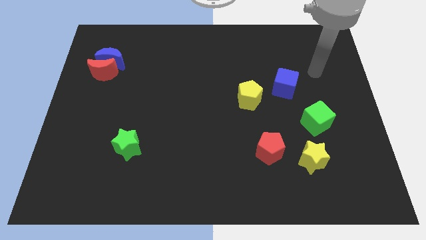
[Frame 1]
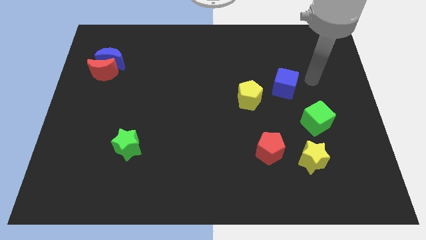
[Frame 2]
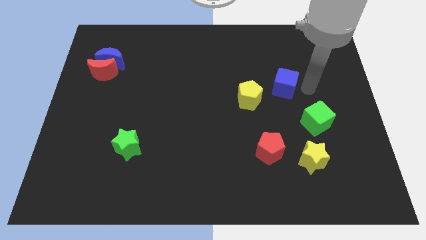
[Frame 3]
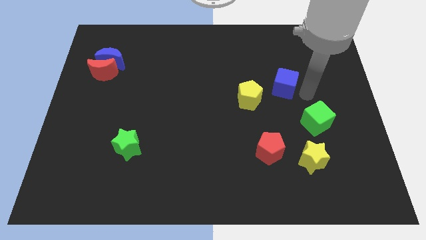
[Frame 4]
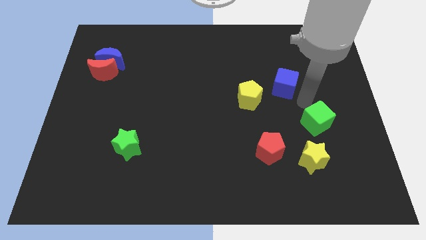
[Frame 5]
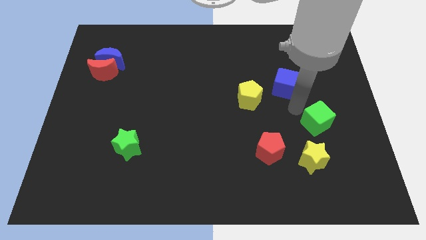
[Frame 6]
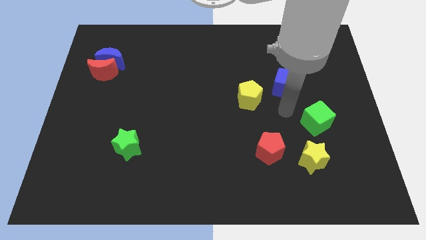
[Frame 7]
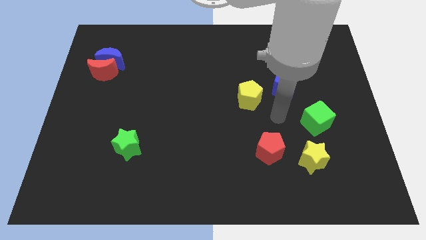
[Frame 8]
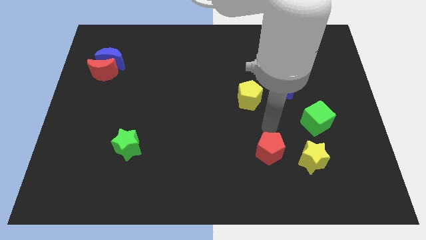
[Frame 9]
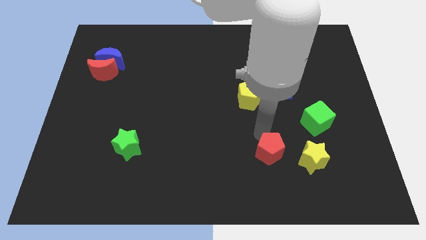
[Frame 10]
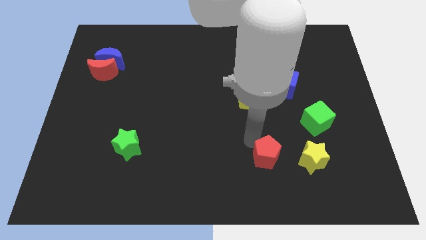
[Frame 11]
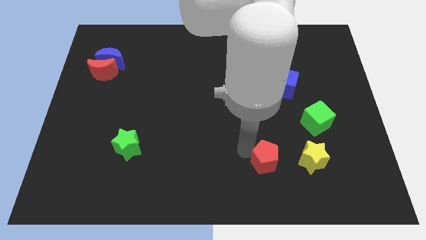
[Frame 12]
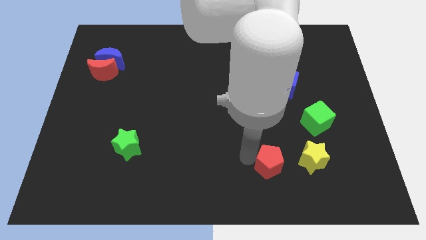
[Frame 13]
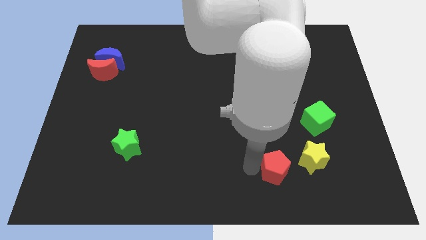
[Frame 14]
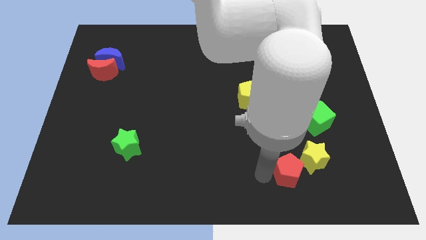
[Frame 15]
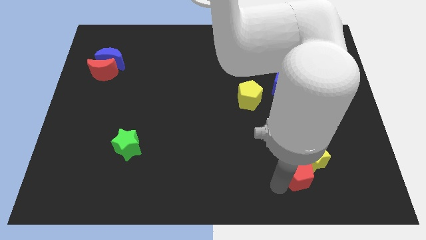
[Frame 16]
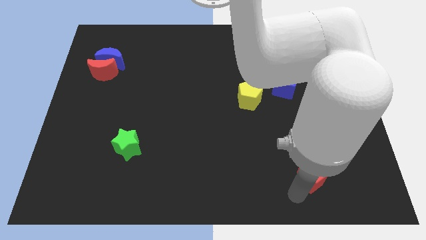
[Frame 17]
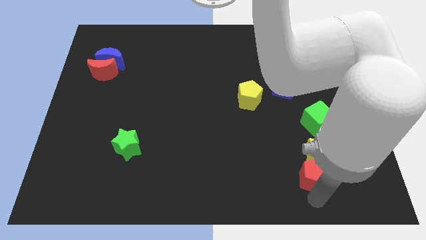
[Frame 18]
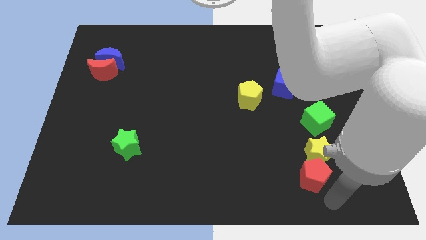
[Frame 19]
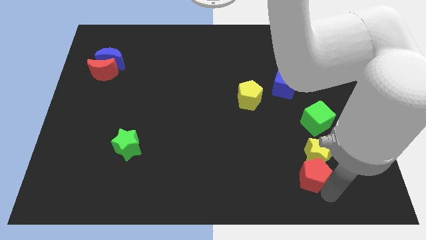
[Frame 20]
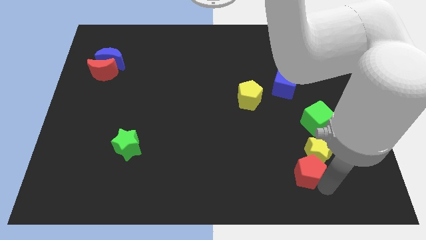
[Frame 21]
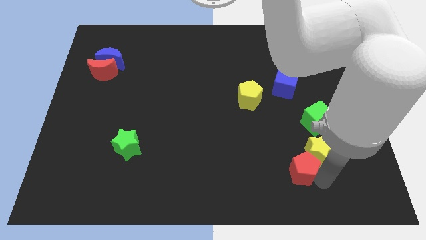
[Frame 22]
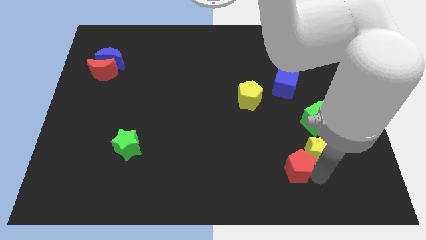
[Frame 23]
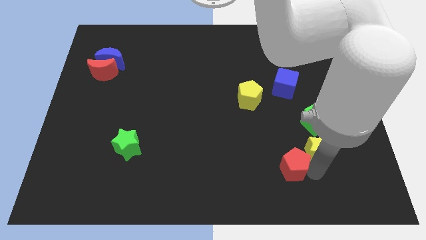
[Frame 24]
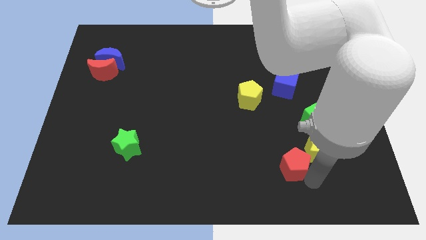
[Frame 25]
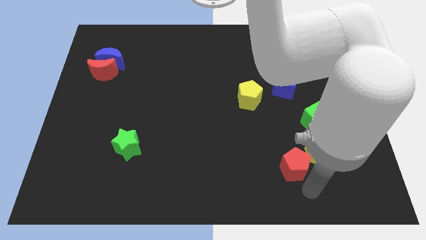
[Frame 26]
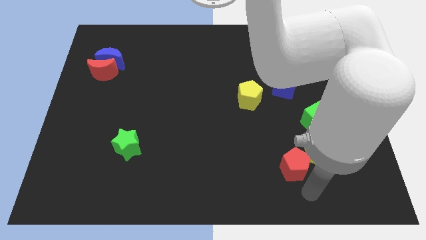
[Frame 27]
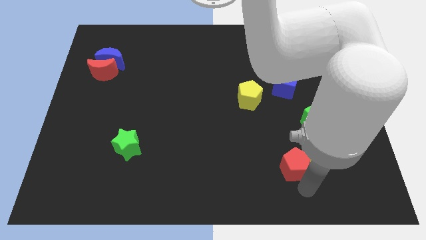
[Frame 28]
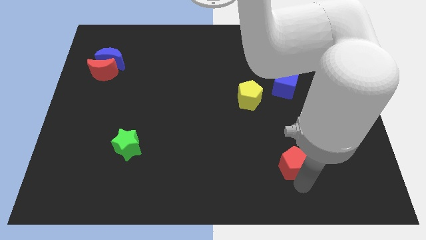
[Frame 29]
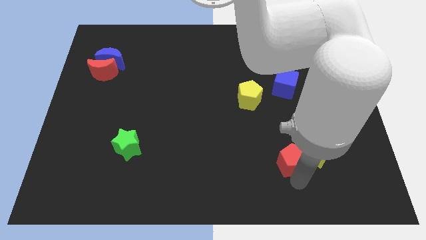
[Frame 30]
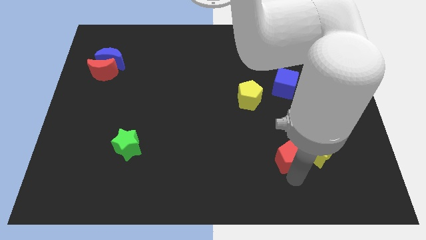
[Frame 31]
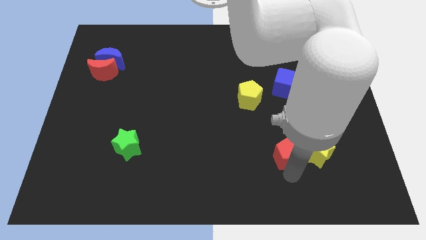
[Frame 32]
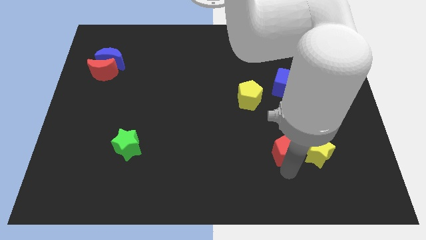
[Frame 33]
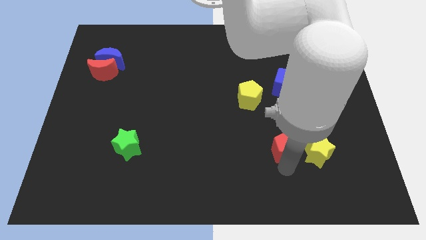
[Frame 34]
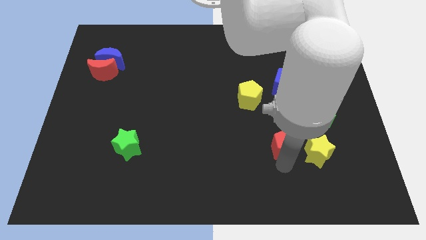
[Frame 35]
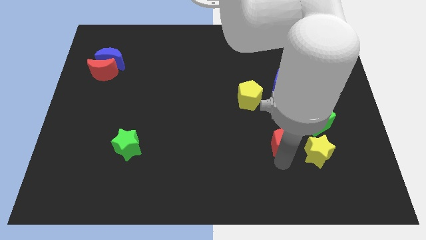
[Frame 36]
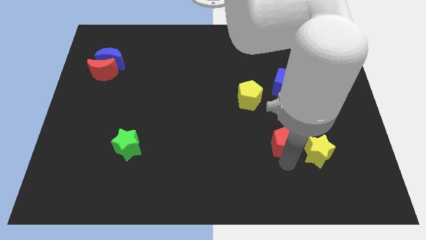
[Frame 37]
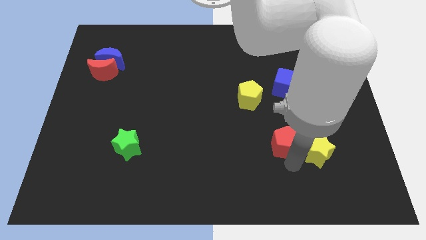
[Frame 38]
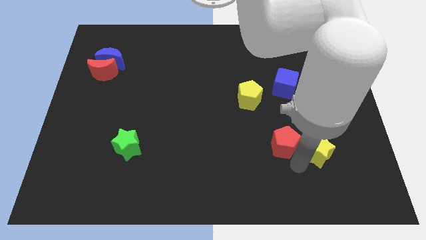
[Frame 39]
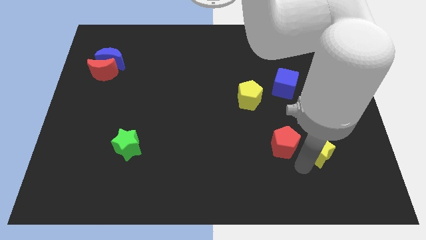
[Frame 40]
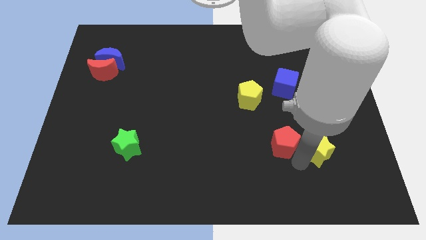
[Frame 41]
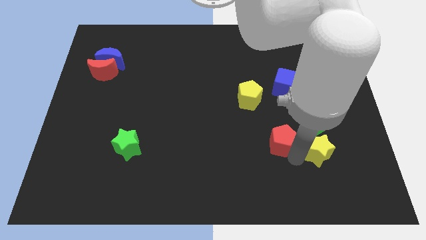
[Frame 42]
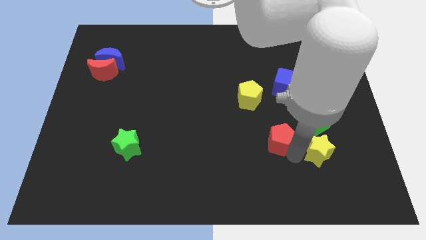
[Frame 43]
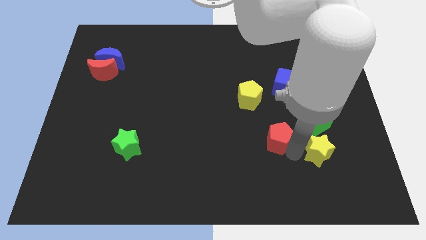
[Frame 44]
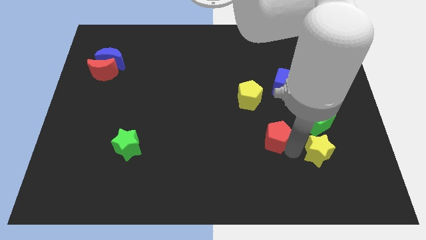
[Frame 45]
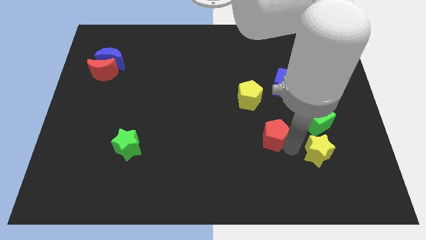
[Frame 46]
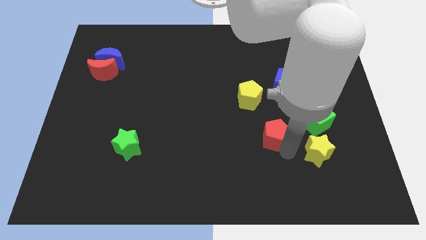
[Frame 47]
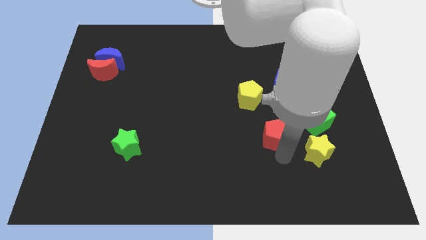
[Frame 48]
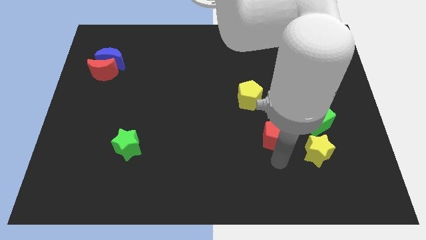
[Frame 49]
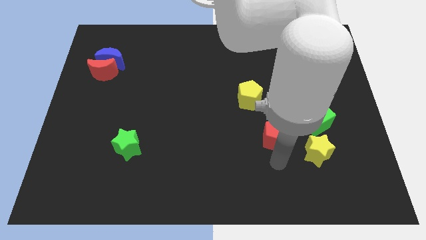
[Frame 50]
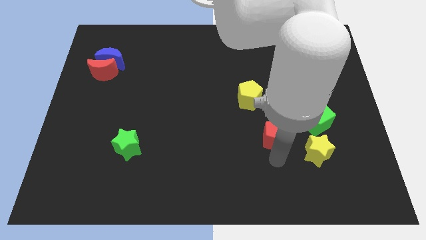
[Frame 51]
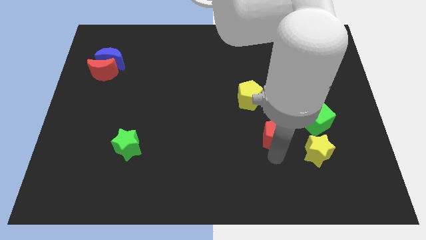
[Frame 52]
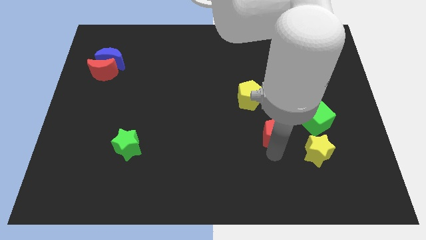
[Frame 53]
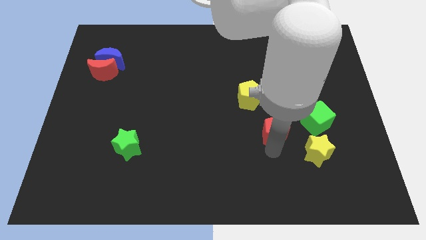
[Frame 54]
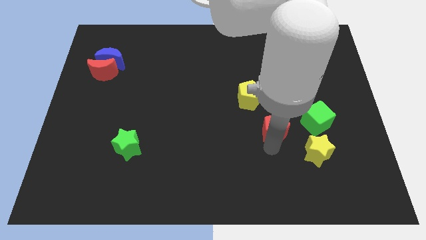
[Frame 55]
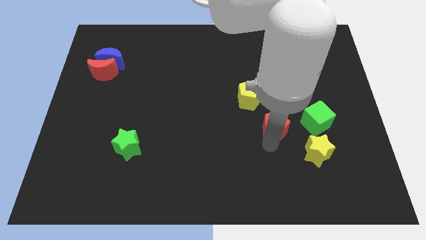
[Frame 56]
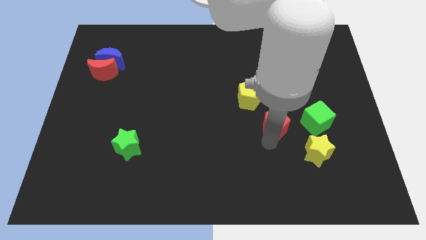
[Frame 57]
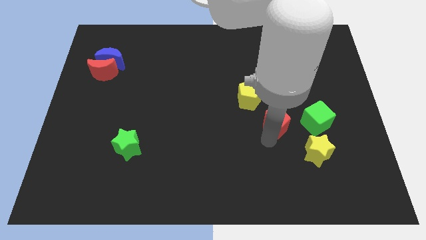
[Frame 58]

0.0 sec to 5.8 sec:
slightly move the red pentagon up

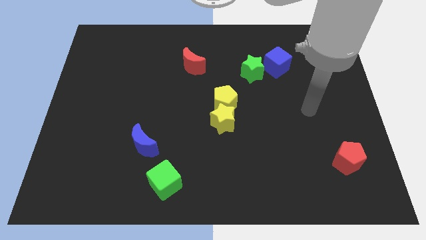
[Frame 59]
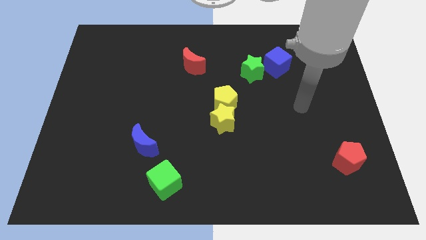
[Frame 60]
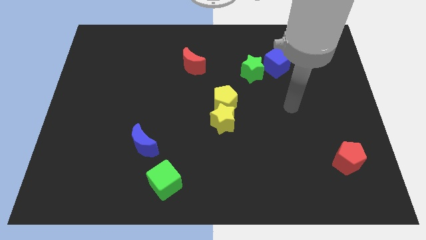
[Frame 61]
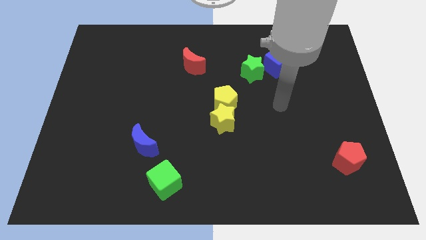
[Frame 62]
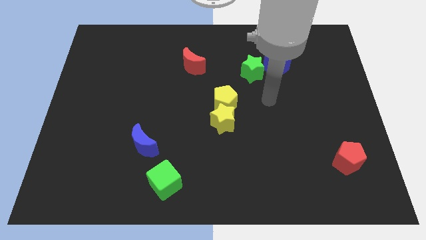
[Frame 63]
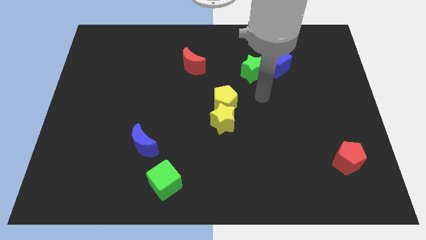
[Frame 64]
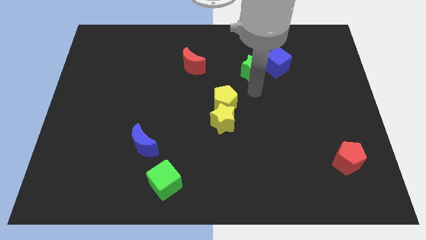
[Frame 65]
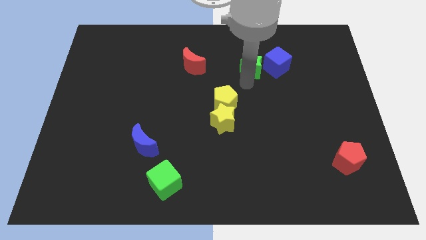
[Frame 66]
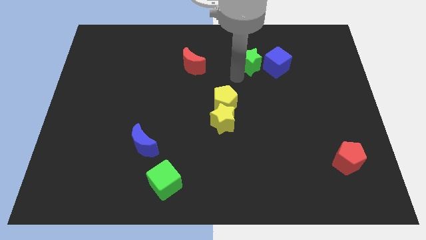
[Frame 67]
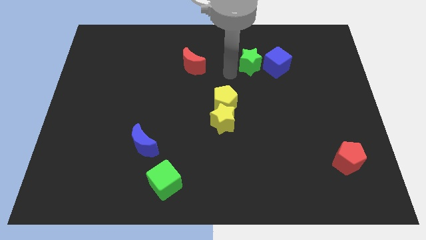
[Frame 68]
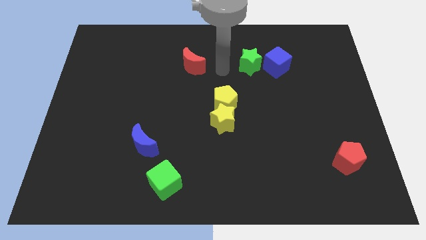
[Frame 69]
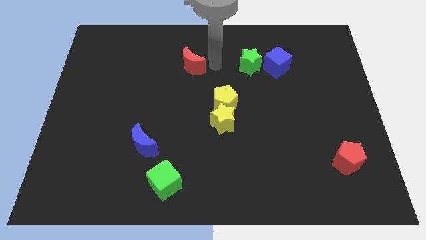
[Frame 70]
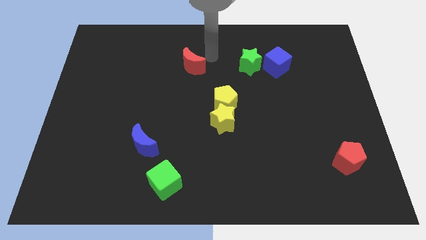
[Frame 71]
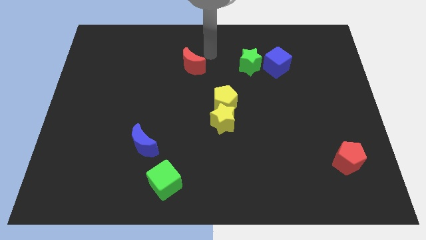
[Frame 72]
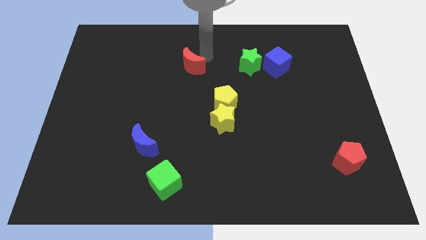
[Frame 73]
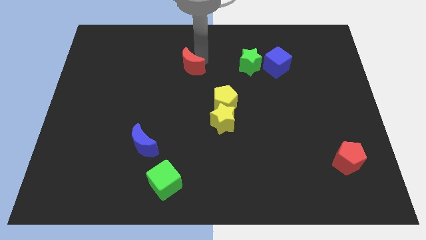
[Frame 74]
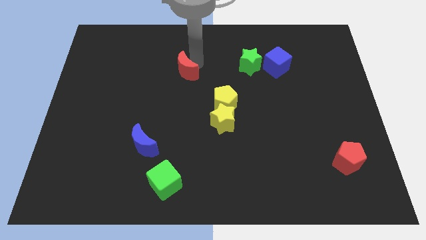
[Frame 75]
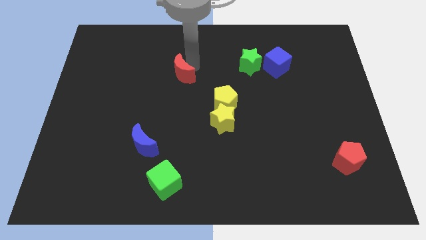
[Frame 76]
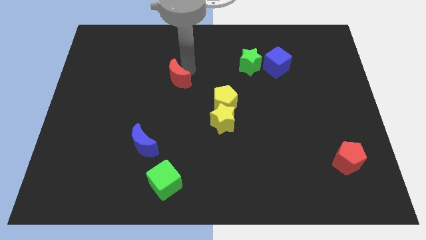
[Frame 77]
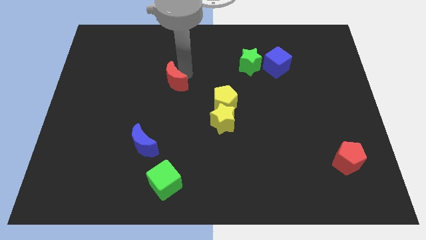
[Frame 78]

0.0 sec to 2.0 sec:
slide the red moon down and to the left diagonally a bit

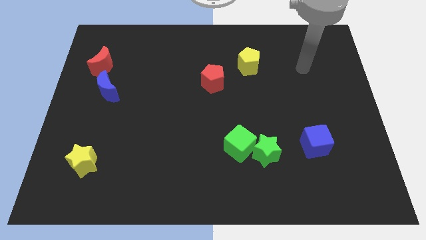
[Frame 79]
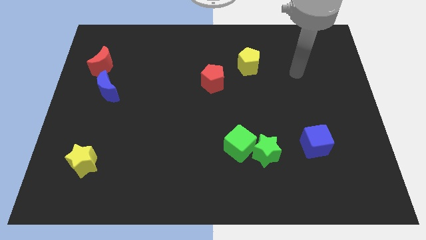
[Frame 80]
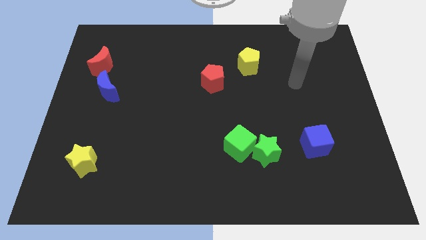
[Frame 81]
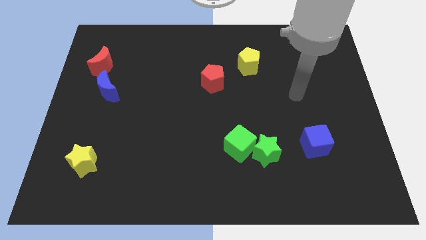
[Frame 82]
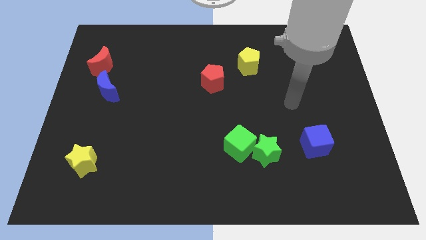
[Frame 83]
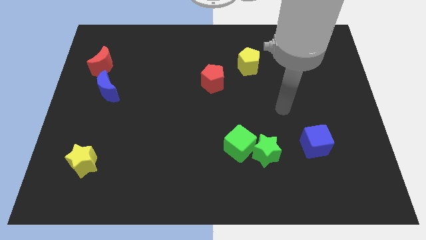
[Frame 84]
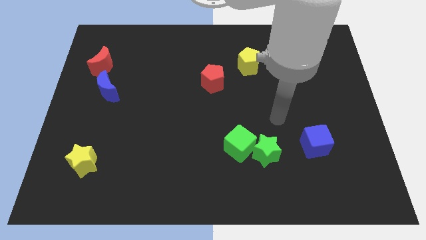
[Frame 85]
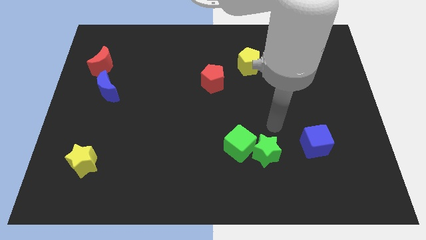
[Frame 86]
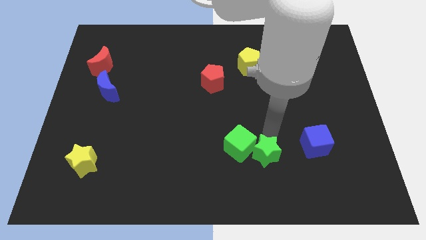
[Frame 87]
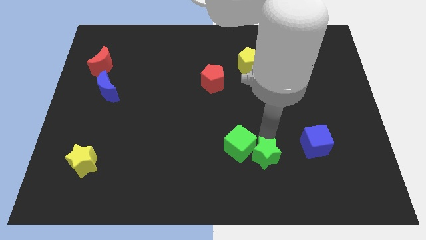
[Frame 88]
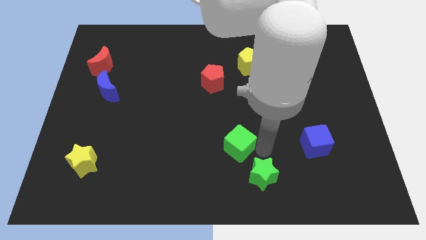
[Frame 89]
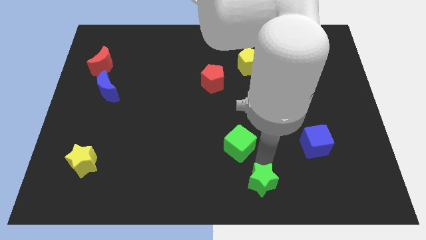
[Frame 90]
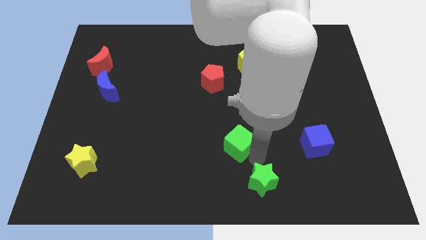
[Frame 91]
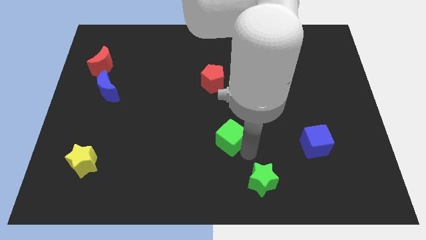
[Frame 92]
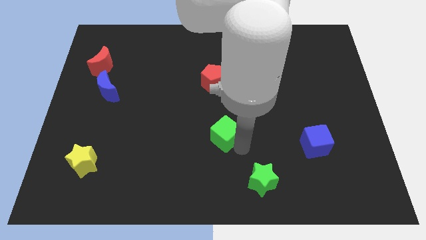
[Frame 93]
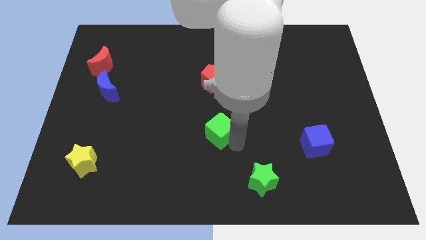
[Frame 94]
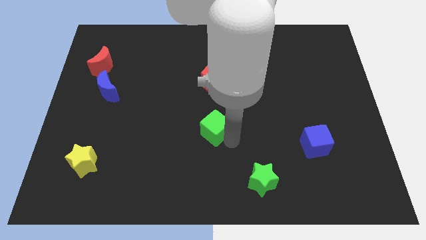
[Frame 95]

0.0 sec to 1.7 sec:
move the green cube diagonally upwards and to the left somewhat
